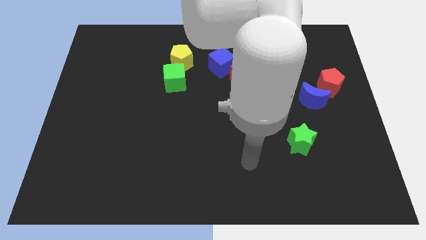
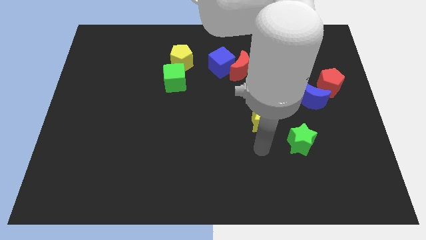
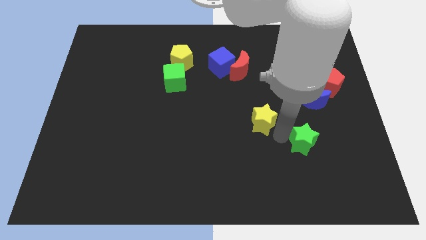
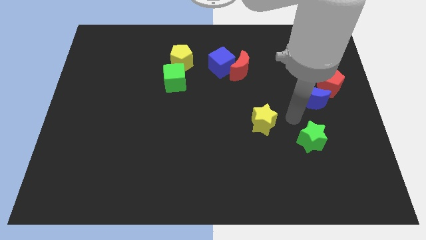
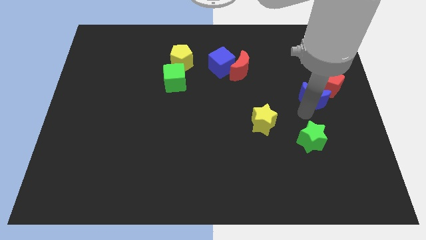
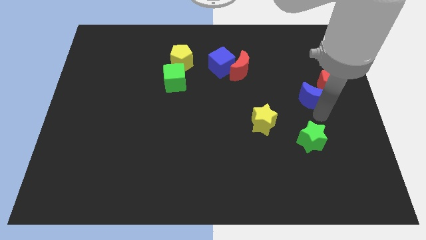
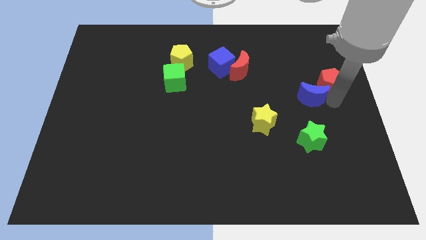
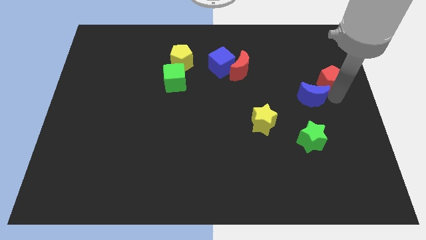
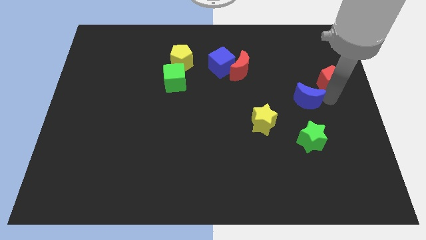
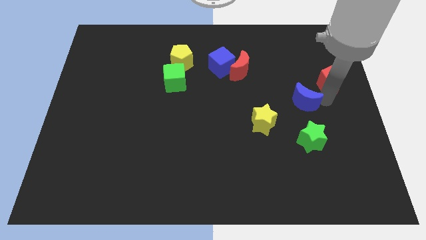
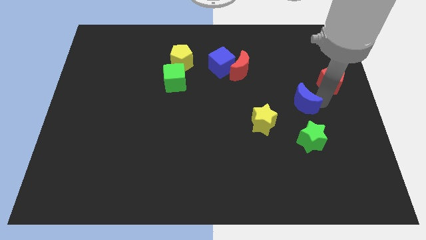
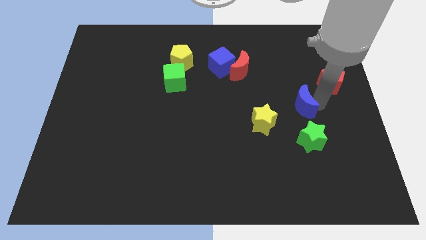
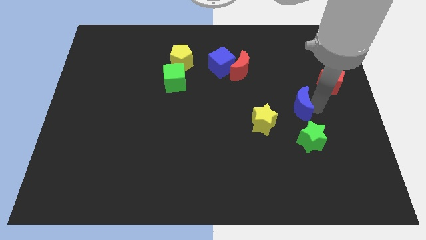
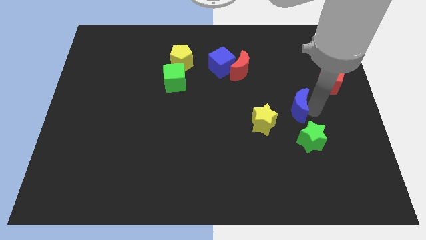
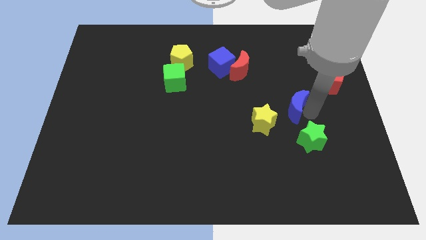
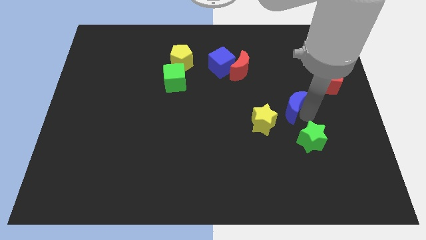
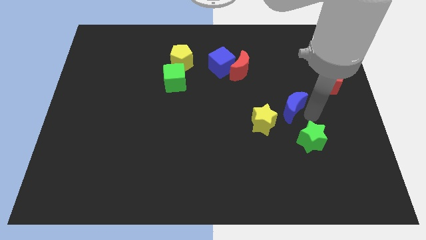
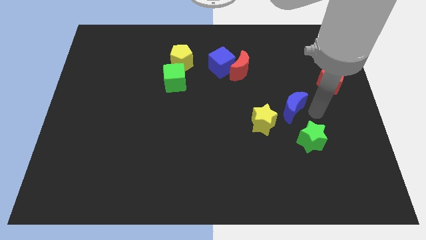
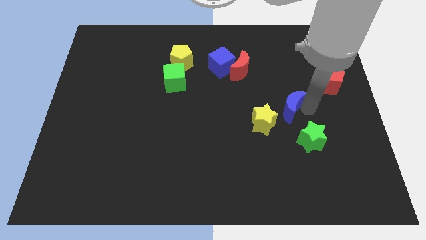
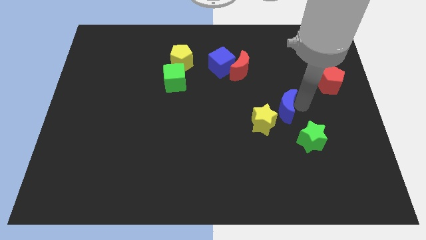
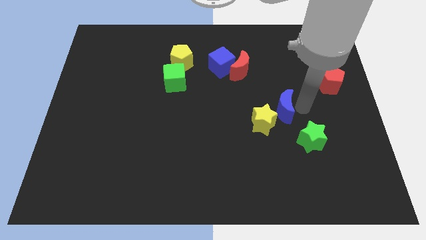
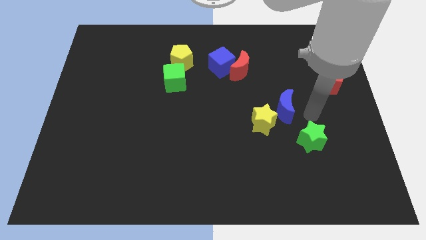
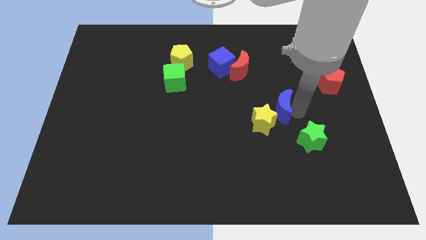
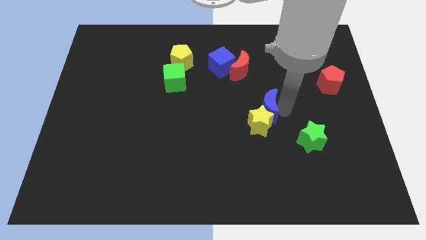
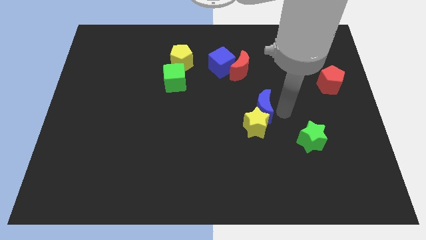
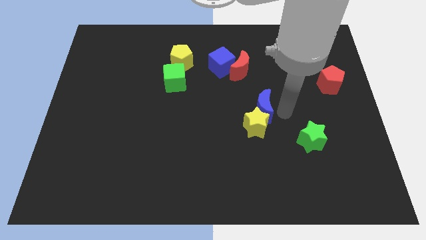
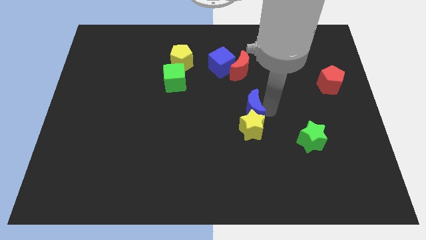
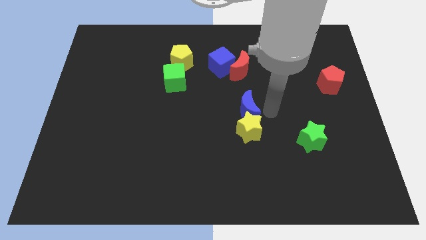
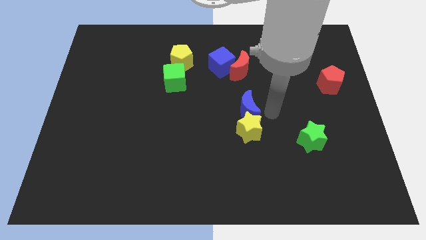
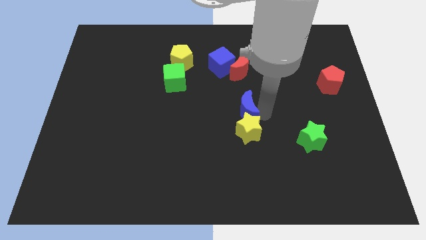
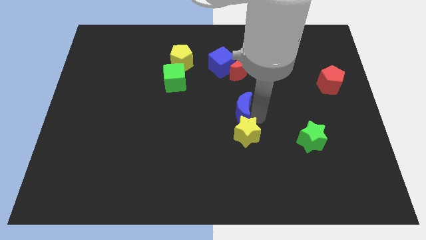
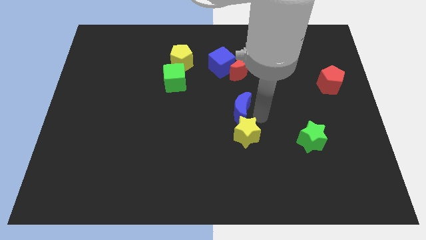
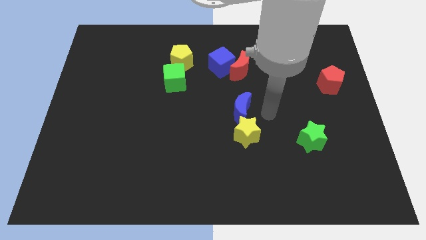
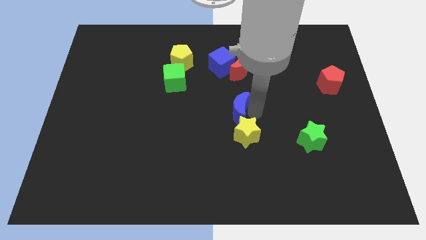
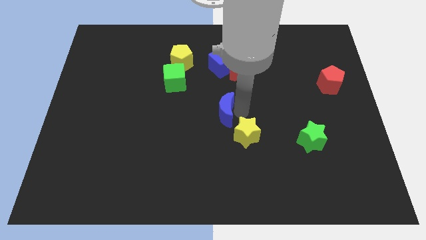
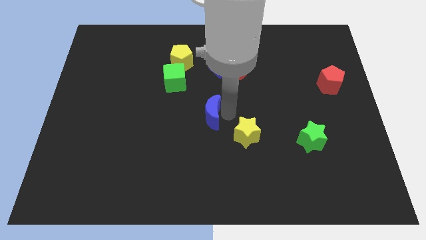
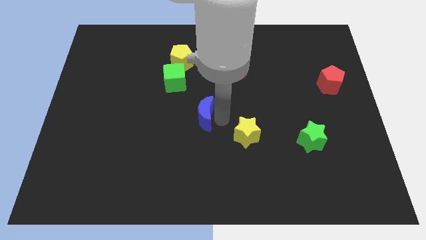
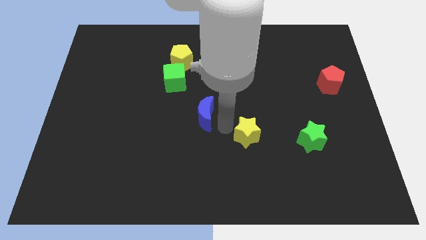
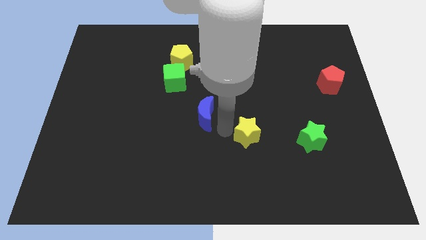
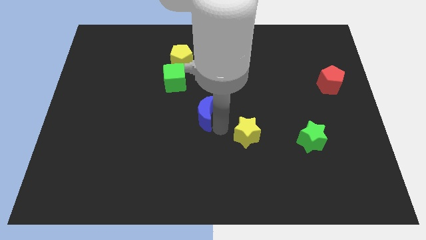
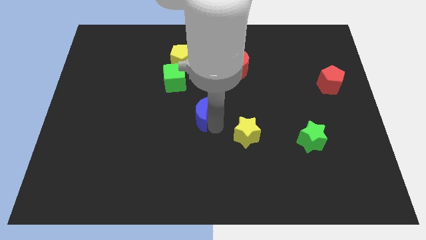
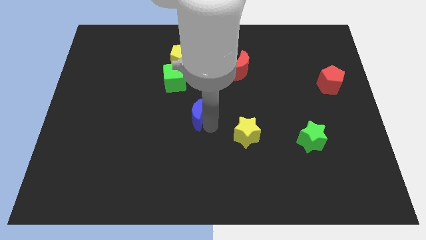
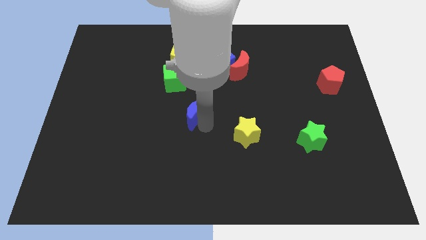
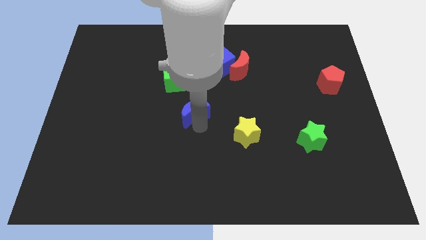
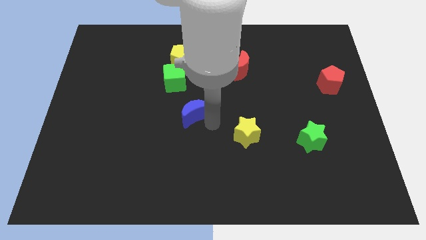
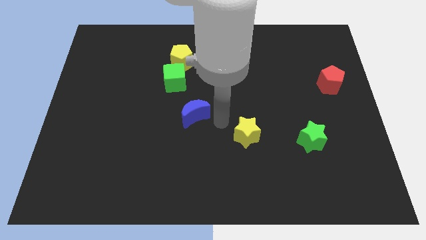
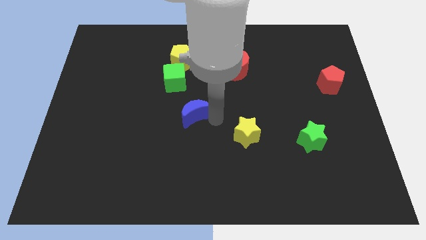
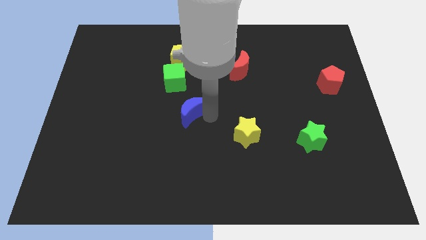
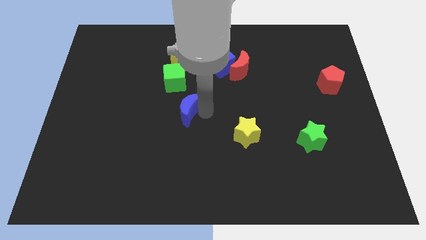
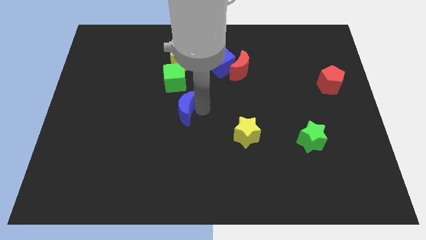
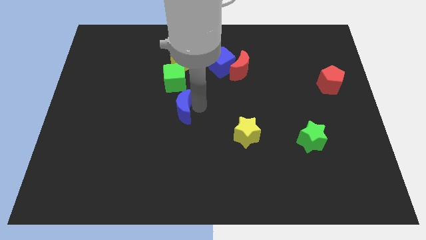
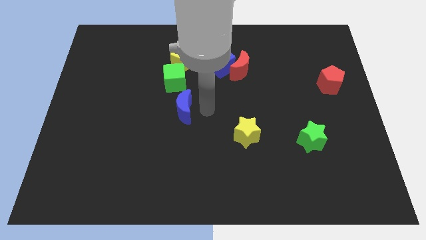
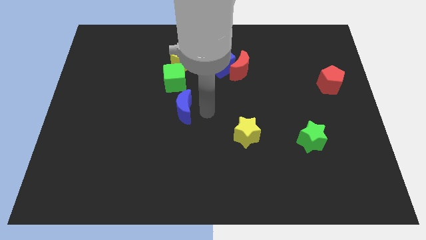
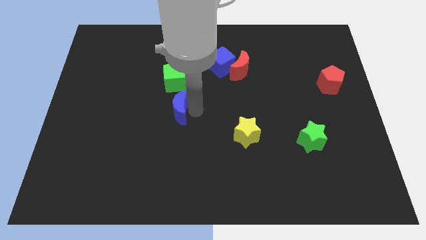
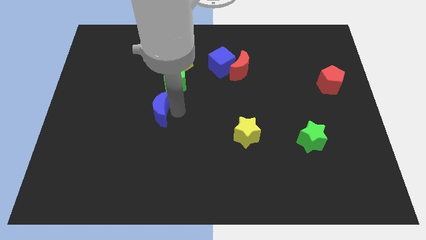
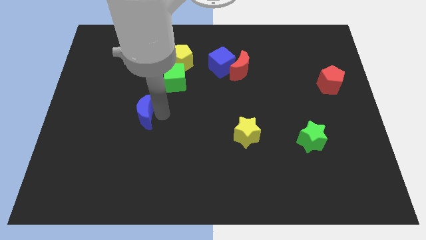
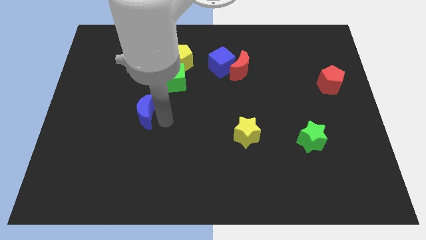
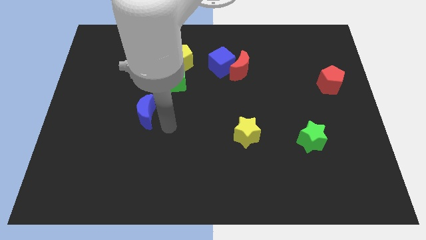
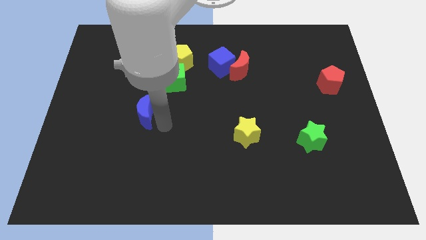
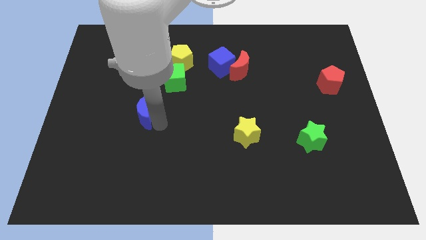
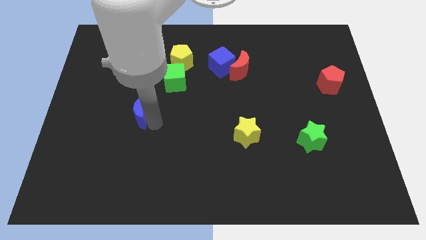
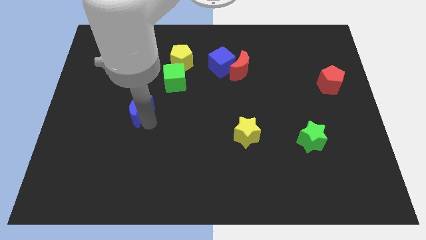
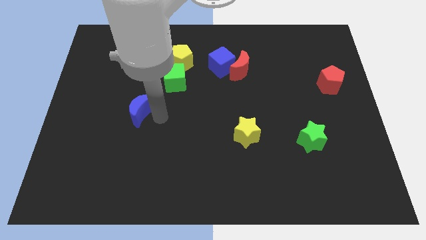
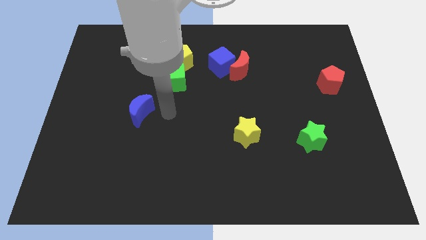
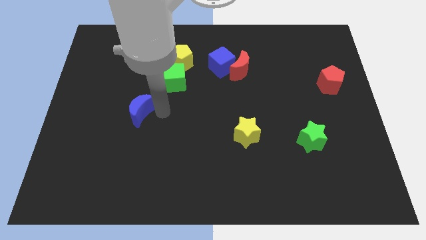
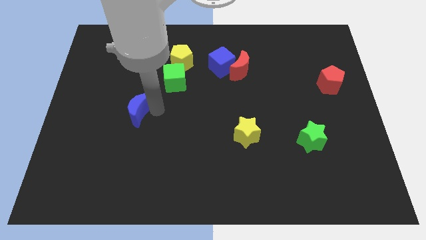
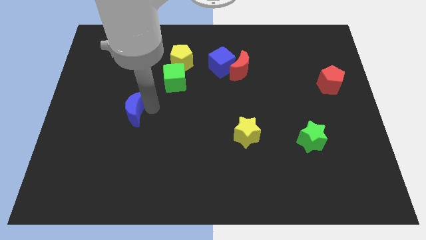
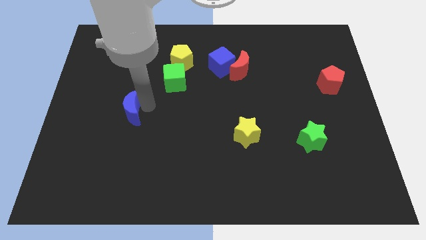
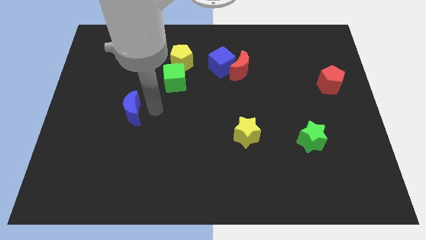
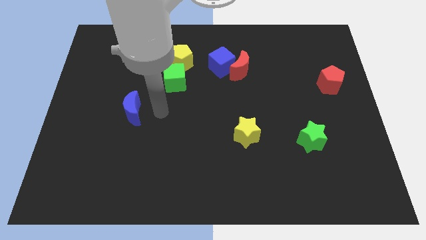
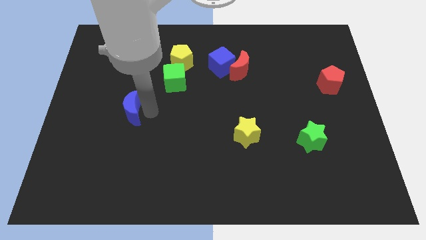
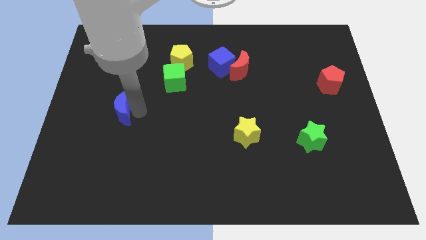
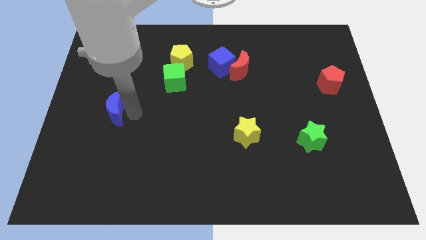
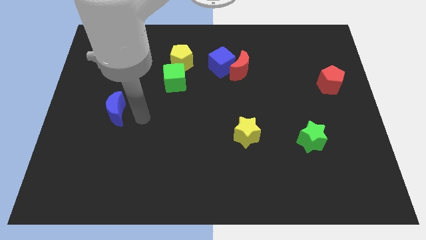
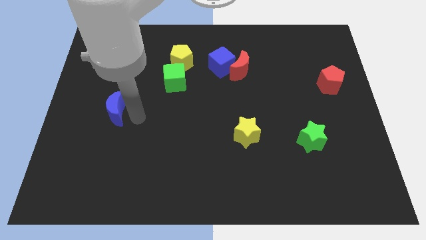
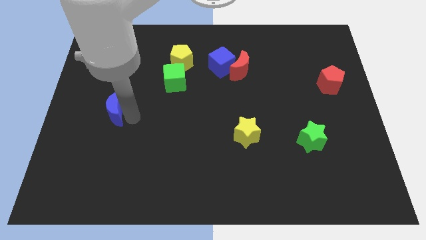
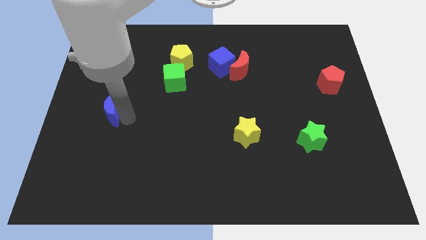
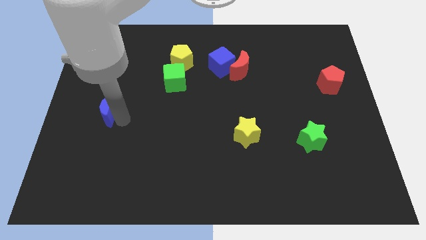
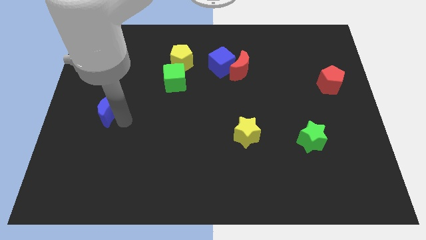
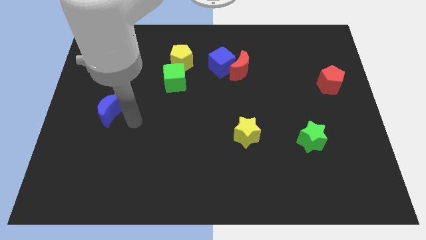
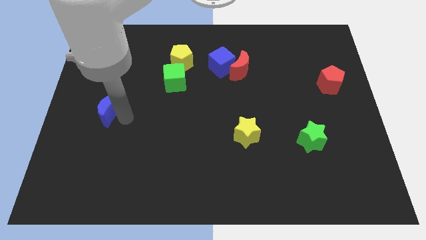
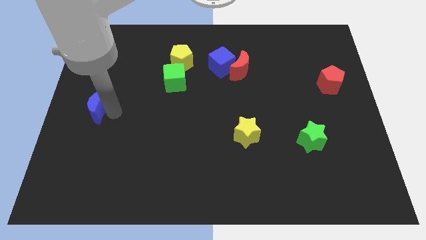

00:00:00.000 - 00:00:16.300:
slide the blue moon to the center left
